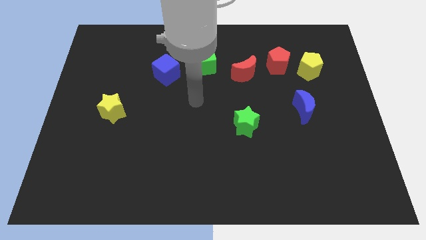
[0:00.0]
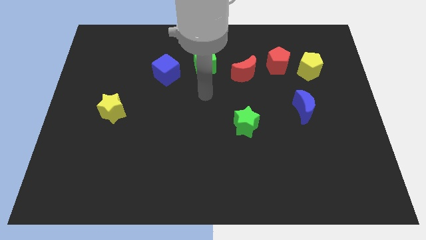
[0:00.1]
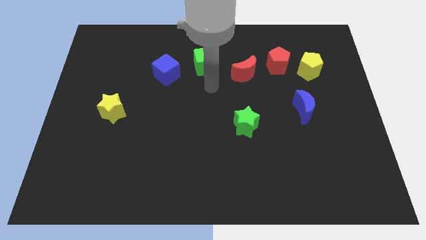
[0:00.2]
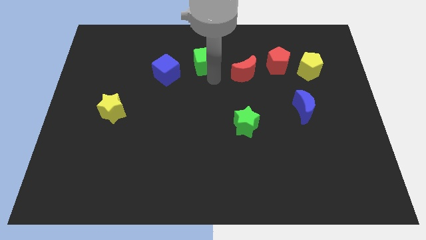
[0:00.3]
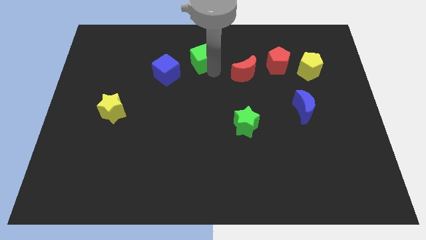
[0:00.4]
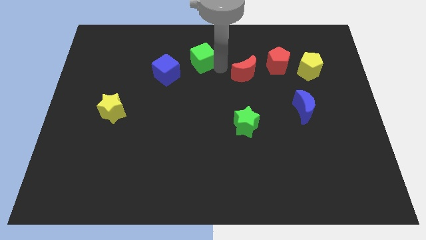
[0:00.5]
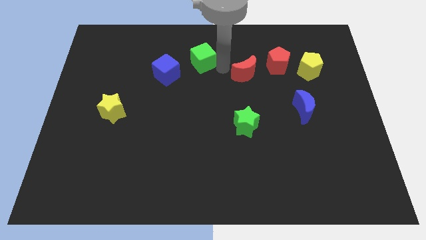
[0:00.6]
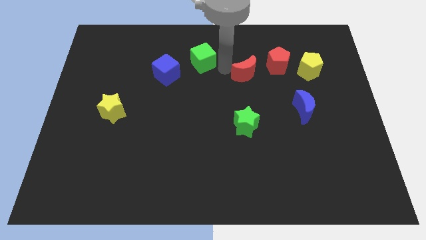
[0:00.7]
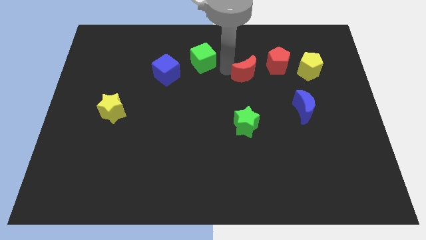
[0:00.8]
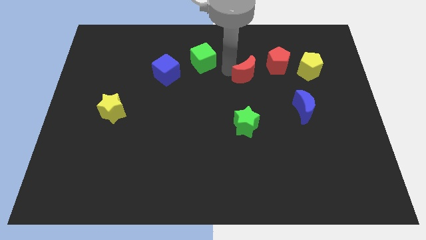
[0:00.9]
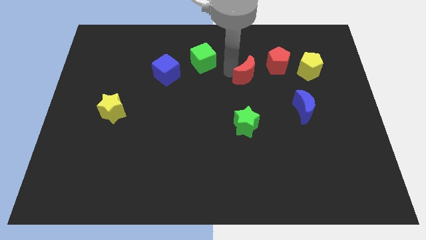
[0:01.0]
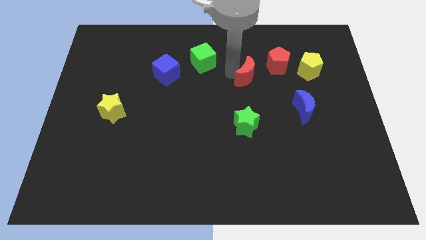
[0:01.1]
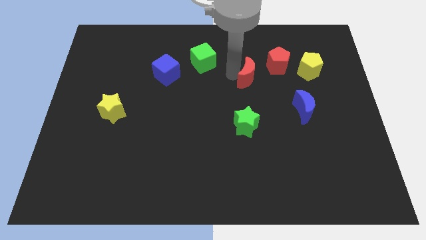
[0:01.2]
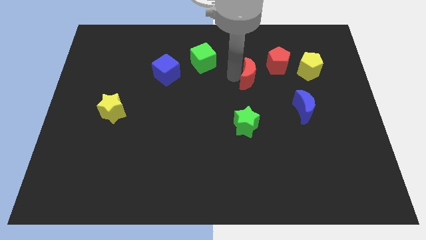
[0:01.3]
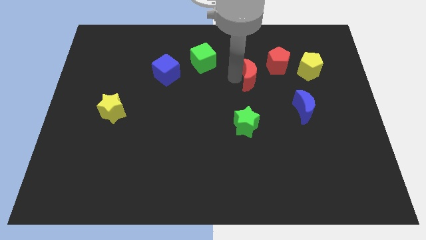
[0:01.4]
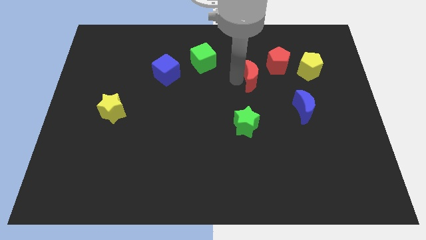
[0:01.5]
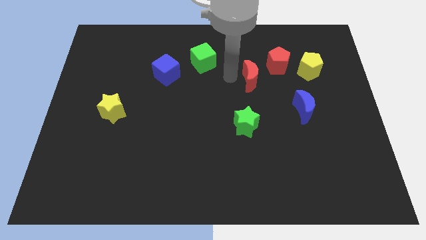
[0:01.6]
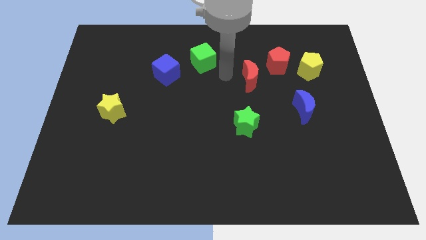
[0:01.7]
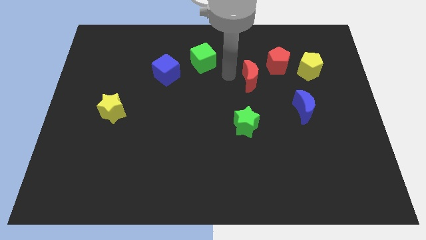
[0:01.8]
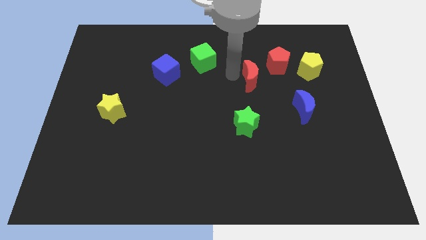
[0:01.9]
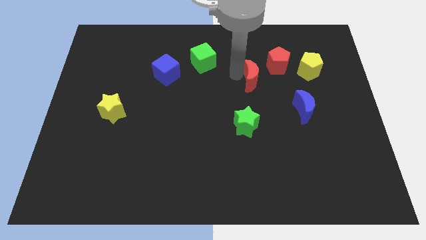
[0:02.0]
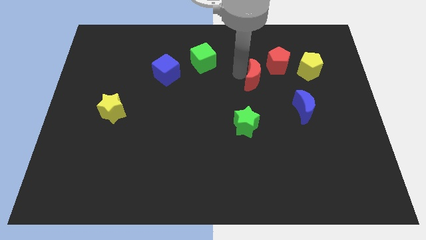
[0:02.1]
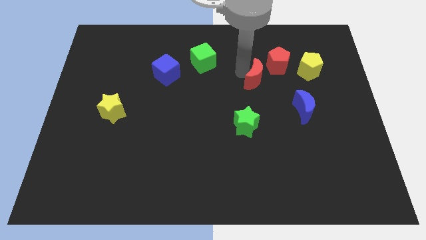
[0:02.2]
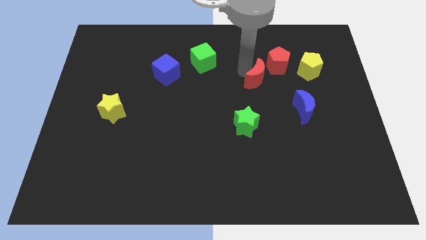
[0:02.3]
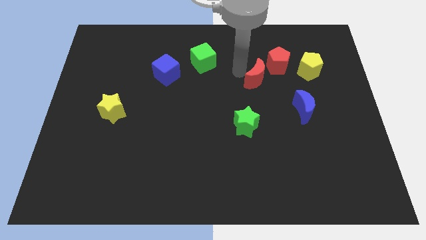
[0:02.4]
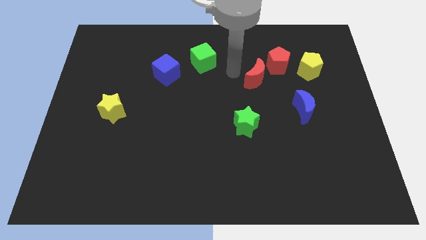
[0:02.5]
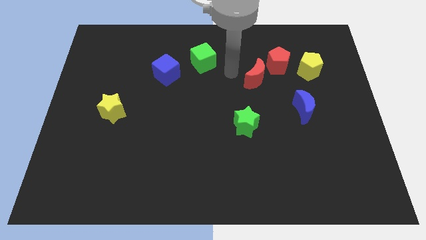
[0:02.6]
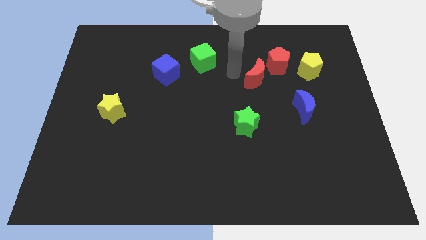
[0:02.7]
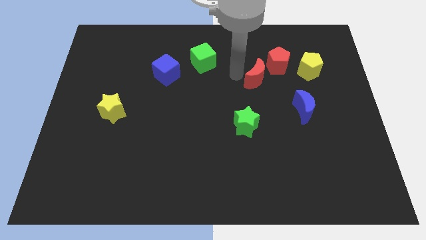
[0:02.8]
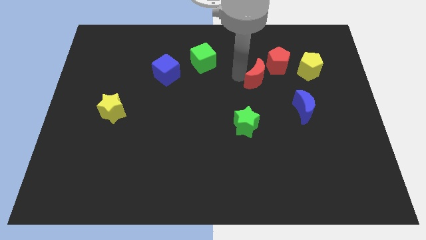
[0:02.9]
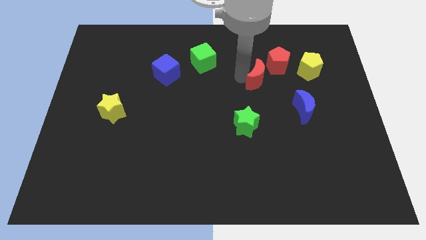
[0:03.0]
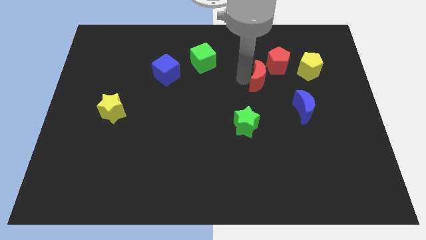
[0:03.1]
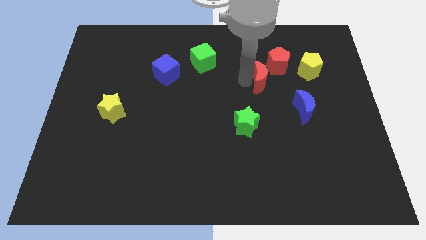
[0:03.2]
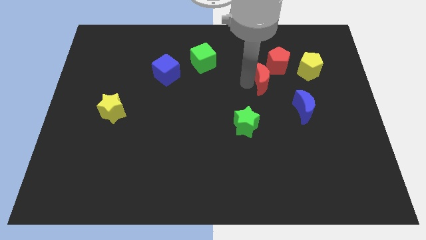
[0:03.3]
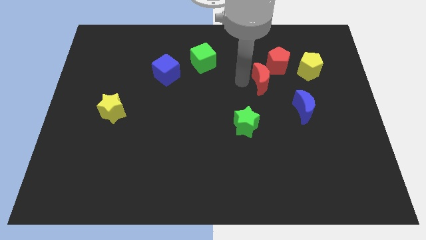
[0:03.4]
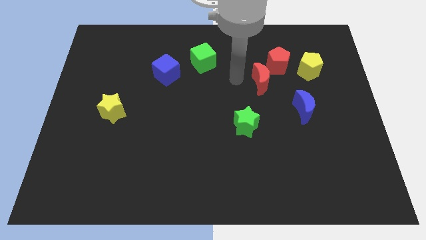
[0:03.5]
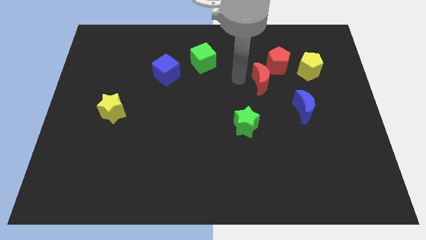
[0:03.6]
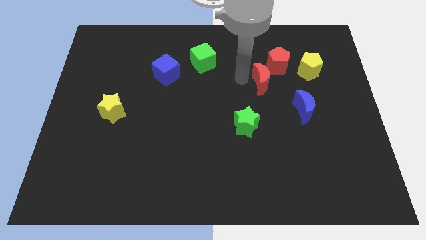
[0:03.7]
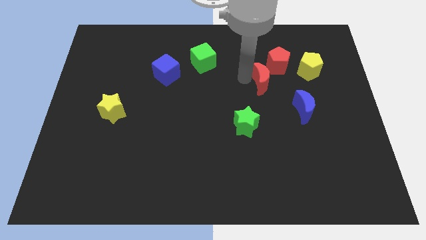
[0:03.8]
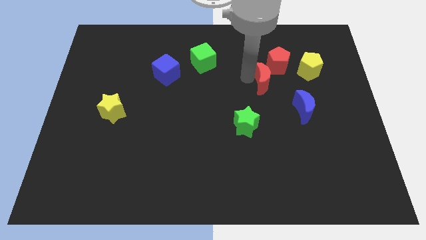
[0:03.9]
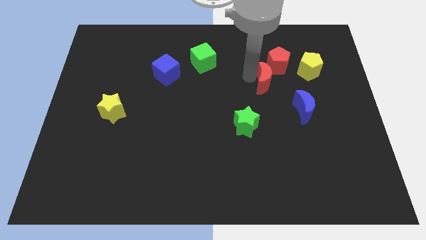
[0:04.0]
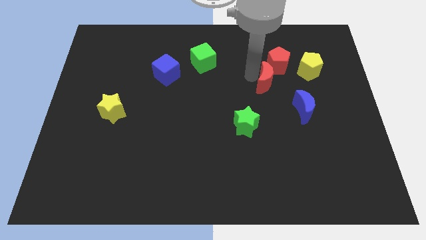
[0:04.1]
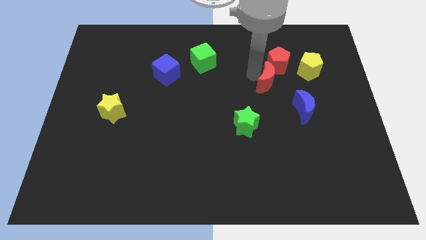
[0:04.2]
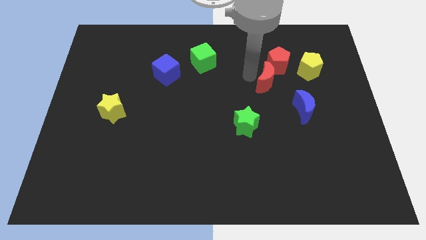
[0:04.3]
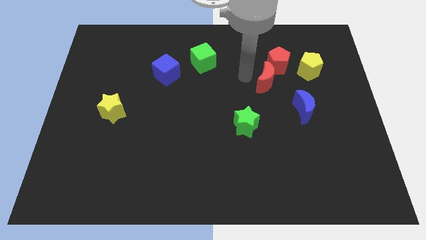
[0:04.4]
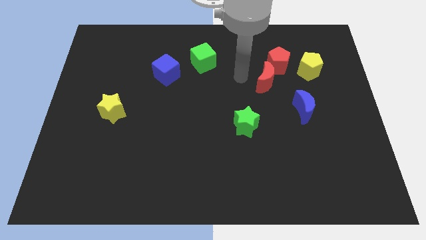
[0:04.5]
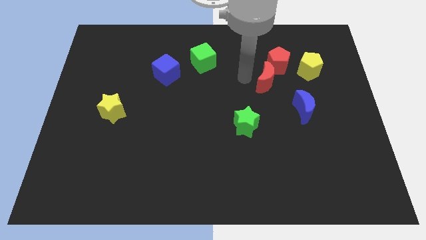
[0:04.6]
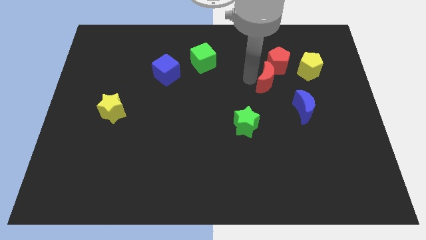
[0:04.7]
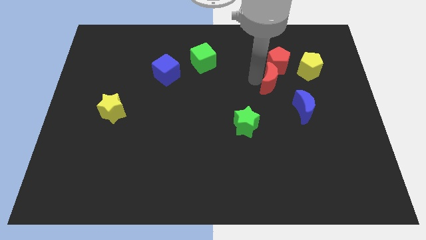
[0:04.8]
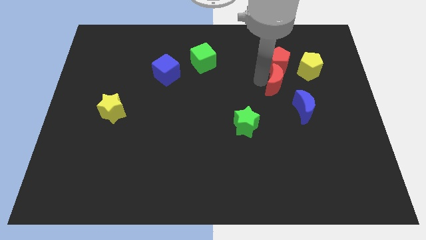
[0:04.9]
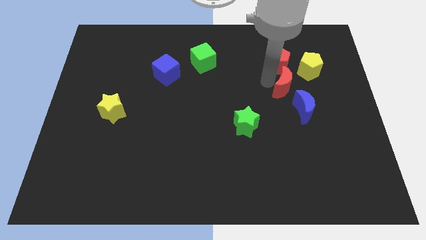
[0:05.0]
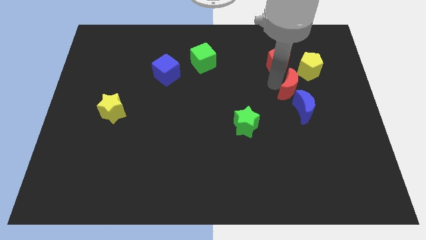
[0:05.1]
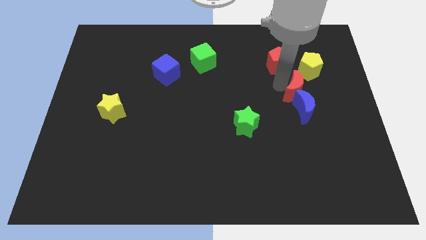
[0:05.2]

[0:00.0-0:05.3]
move the red moon to the bottom side of the yellow pentagon

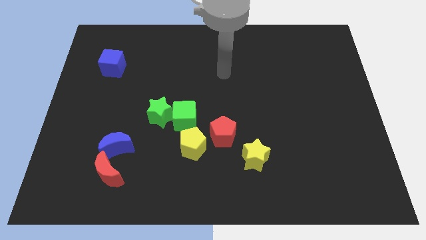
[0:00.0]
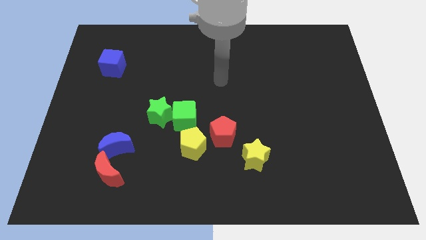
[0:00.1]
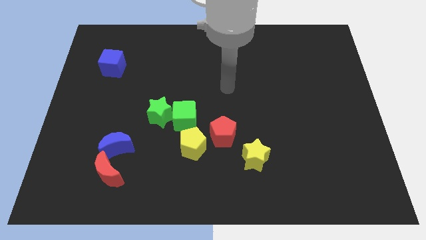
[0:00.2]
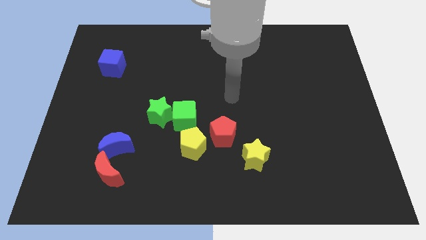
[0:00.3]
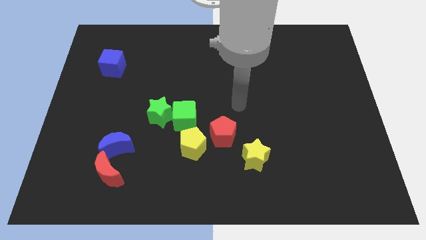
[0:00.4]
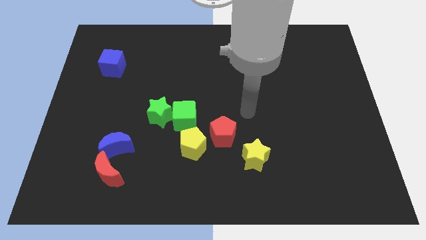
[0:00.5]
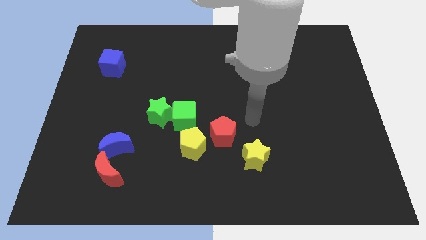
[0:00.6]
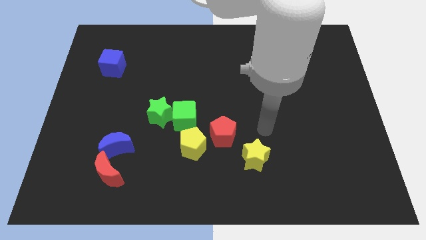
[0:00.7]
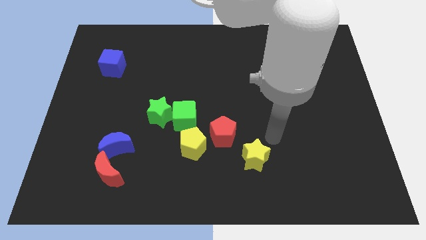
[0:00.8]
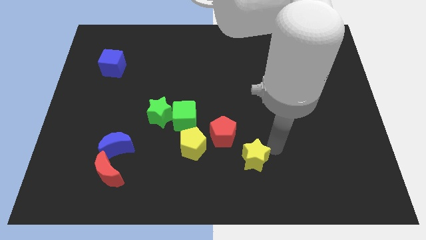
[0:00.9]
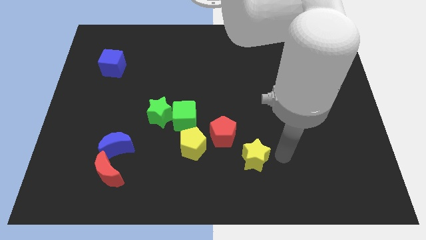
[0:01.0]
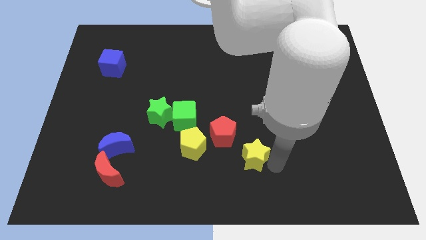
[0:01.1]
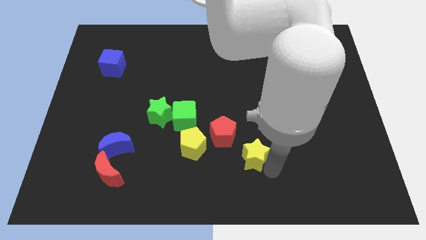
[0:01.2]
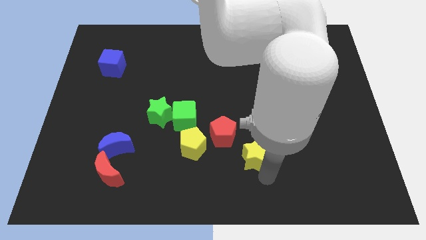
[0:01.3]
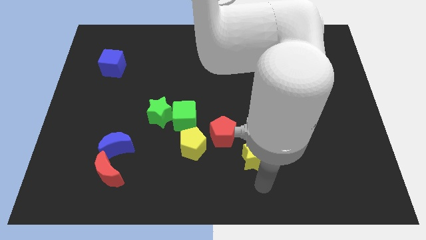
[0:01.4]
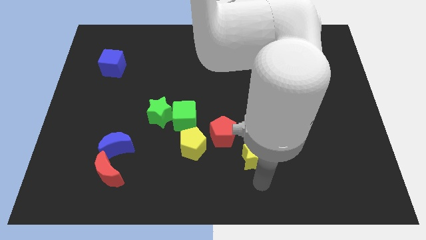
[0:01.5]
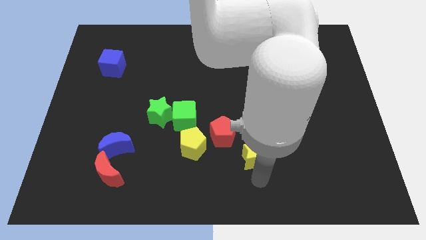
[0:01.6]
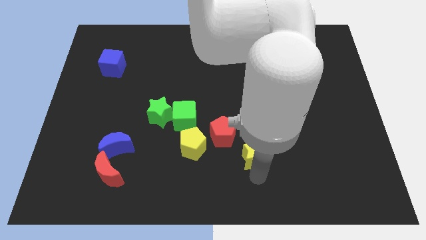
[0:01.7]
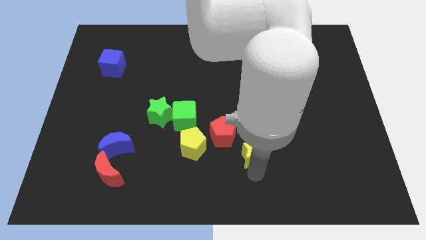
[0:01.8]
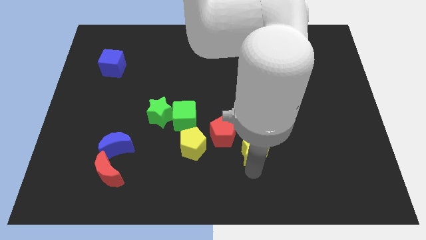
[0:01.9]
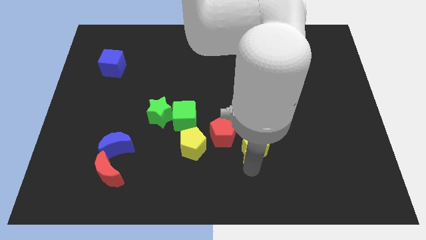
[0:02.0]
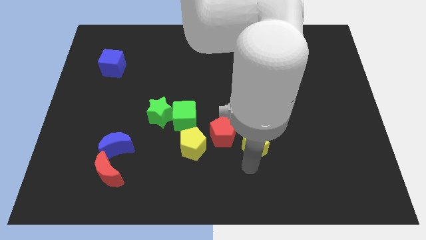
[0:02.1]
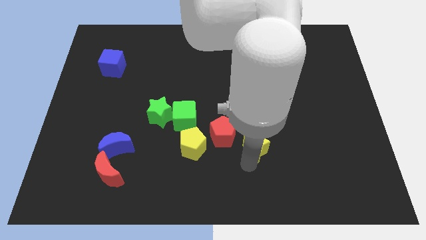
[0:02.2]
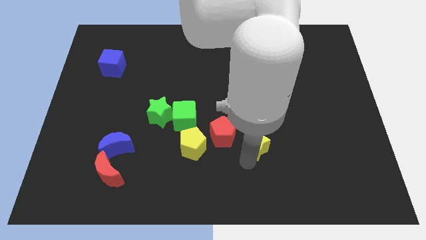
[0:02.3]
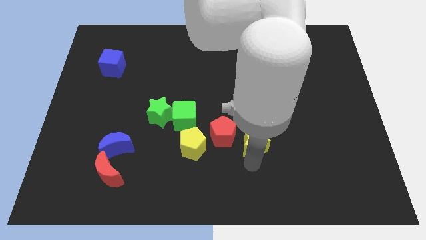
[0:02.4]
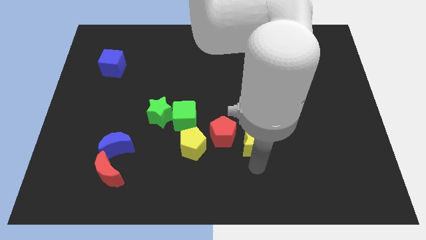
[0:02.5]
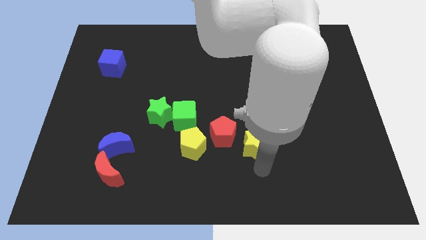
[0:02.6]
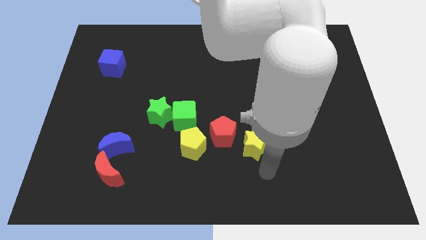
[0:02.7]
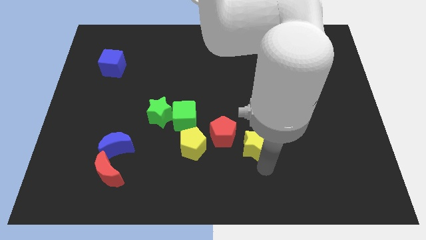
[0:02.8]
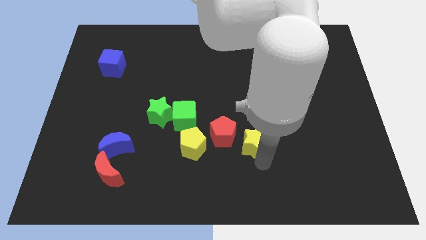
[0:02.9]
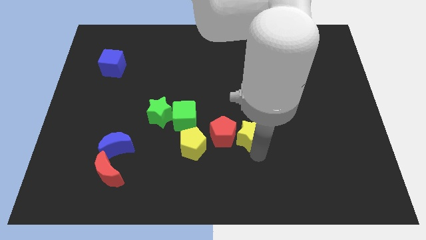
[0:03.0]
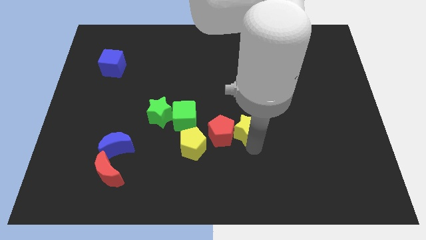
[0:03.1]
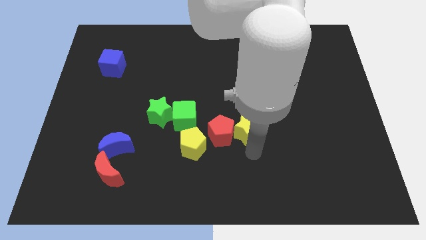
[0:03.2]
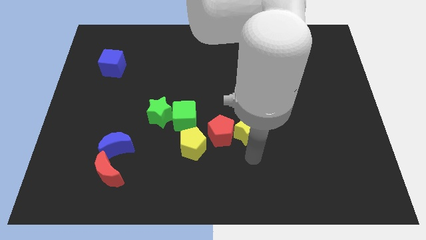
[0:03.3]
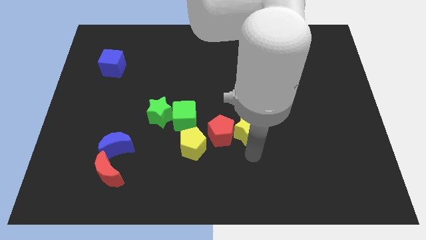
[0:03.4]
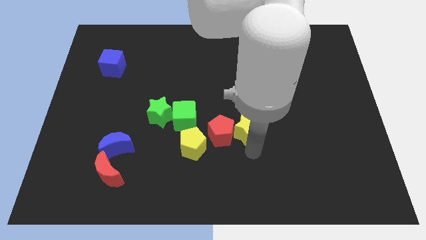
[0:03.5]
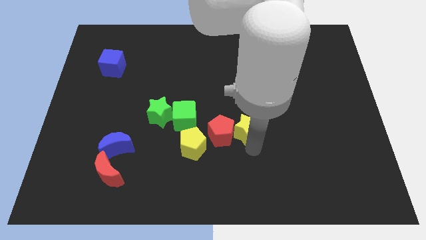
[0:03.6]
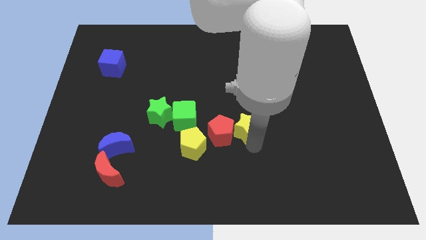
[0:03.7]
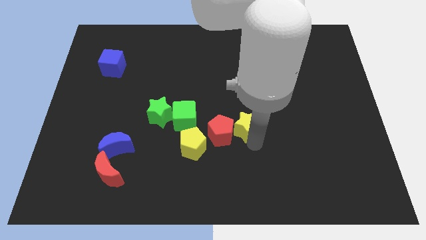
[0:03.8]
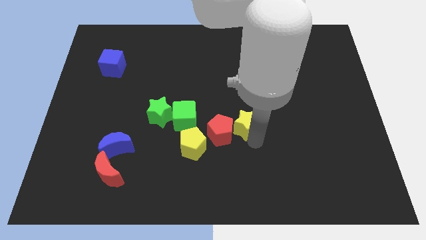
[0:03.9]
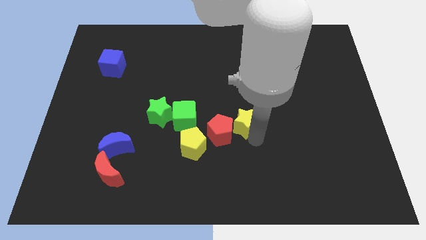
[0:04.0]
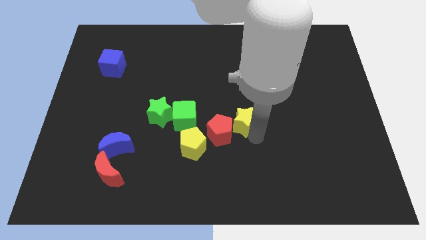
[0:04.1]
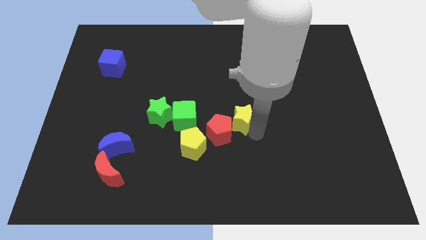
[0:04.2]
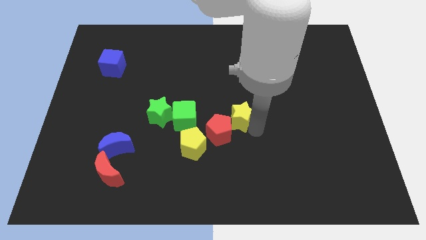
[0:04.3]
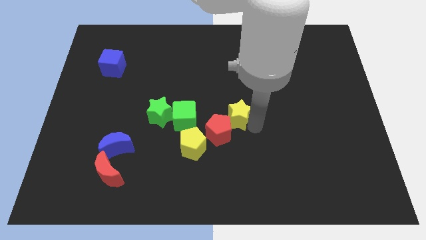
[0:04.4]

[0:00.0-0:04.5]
move the yellow star to the top of the red pentagon
